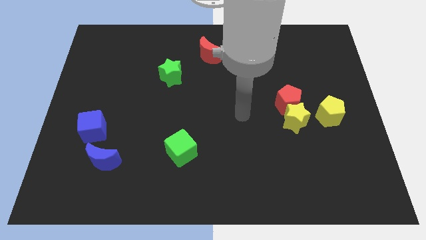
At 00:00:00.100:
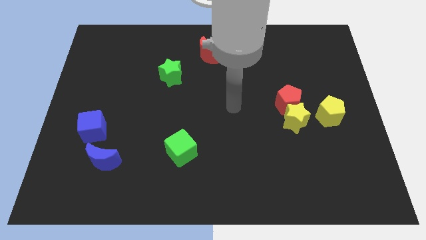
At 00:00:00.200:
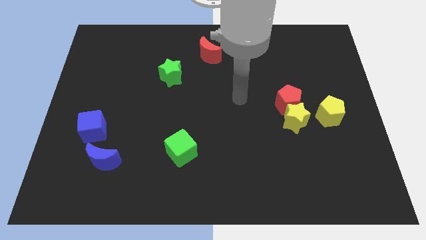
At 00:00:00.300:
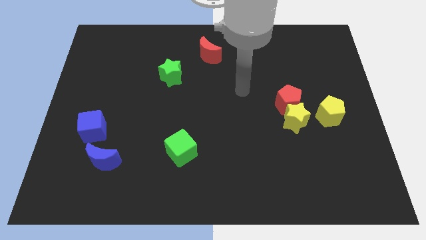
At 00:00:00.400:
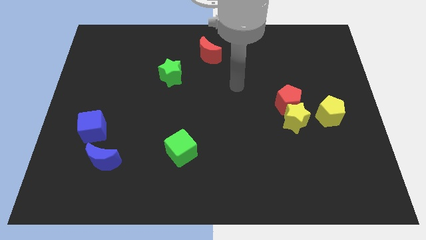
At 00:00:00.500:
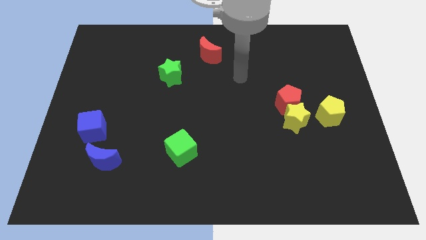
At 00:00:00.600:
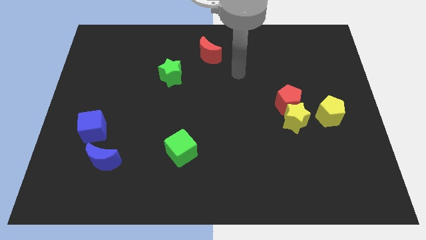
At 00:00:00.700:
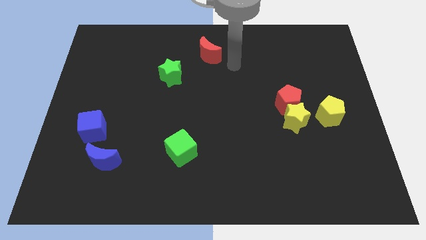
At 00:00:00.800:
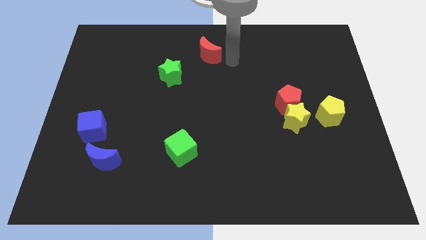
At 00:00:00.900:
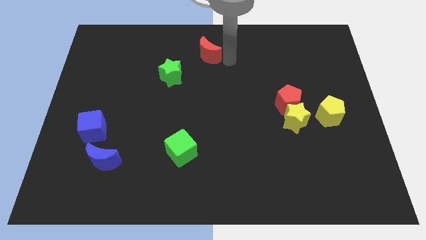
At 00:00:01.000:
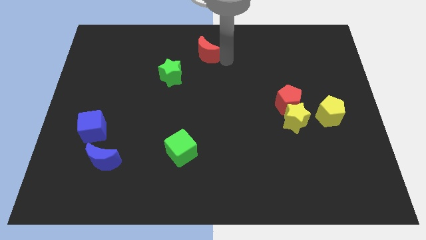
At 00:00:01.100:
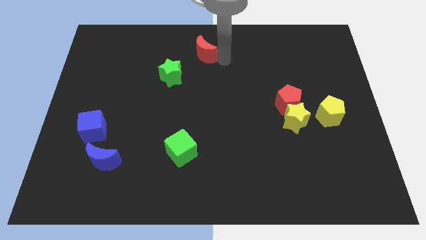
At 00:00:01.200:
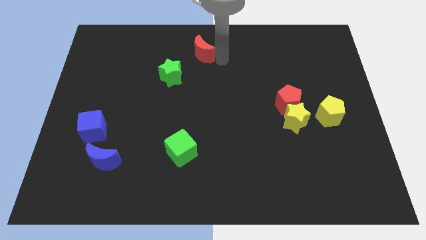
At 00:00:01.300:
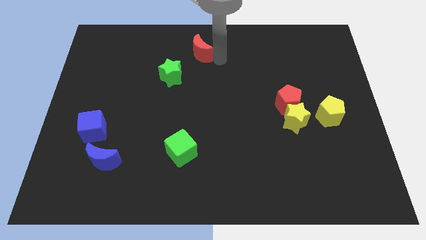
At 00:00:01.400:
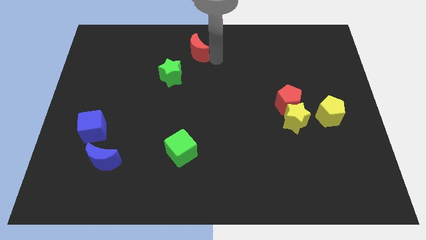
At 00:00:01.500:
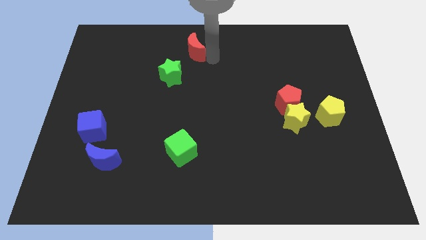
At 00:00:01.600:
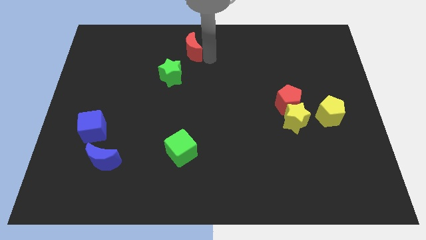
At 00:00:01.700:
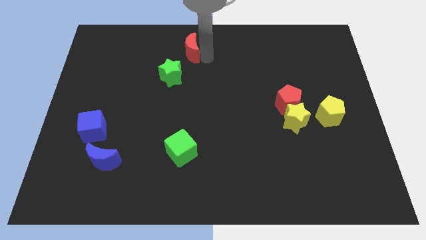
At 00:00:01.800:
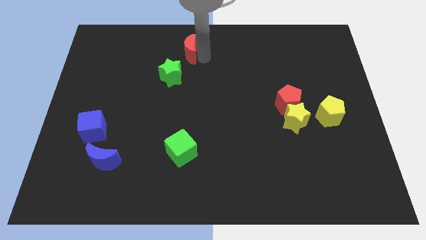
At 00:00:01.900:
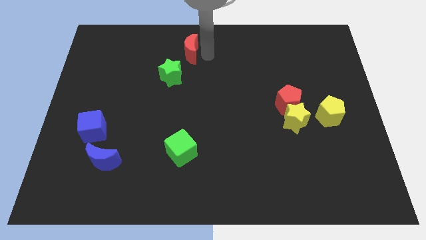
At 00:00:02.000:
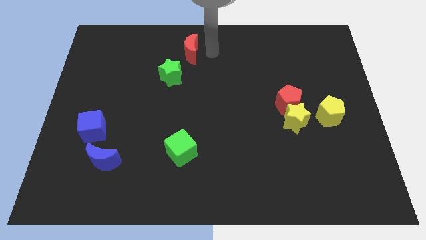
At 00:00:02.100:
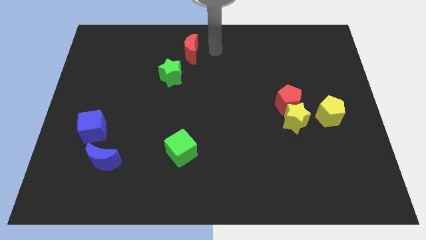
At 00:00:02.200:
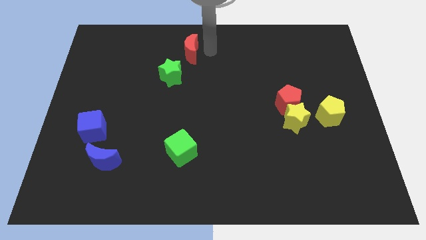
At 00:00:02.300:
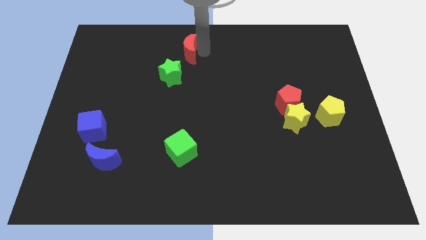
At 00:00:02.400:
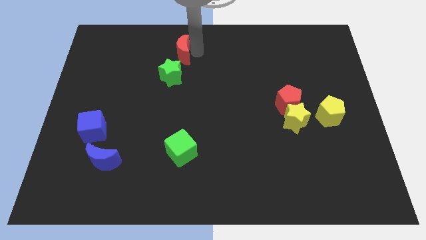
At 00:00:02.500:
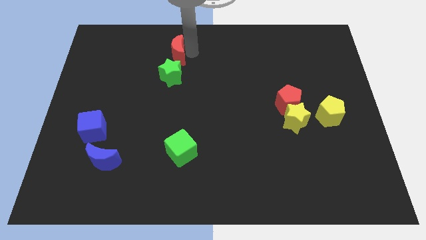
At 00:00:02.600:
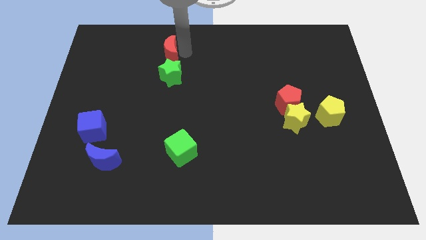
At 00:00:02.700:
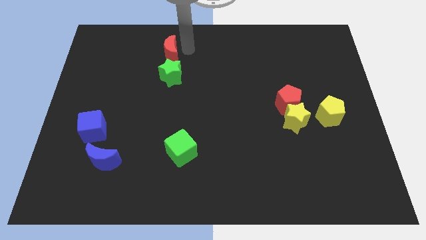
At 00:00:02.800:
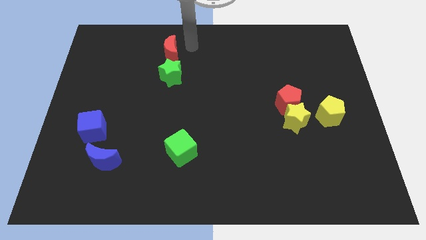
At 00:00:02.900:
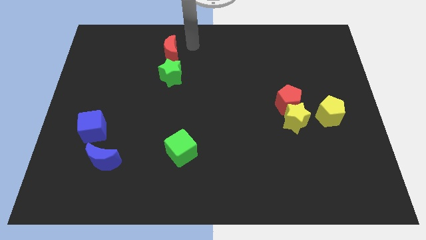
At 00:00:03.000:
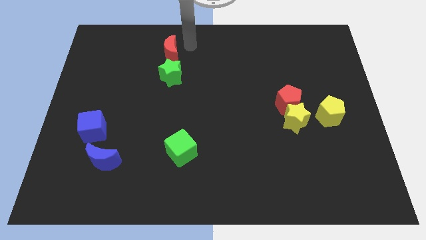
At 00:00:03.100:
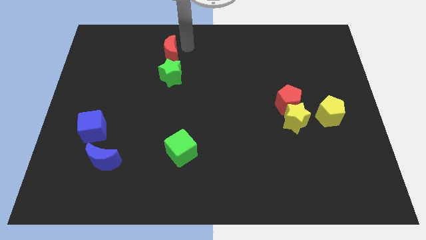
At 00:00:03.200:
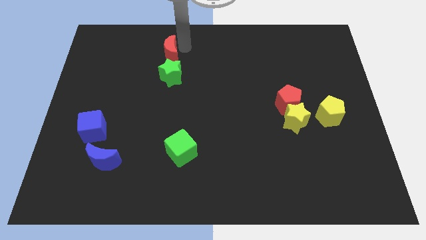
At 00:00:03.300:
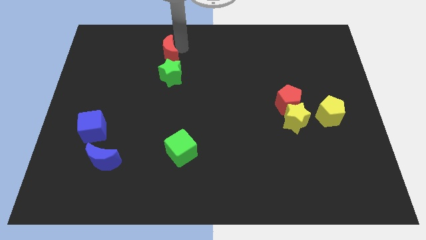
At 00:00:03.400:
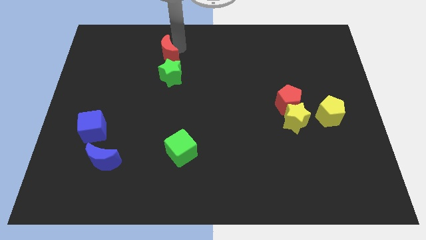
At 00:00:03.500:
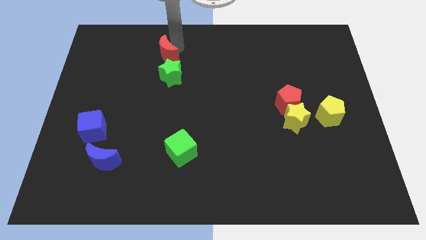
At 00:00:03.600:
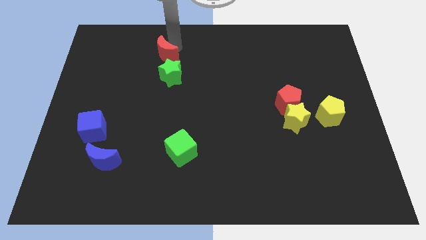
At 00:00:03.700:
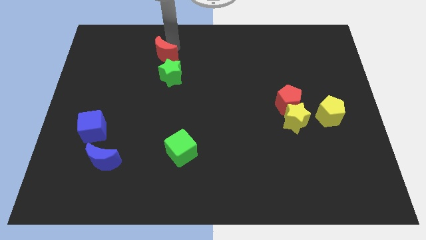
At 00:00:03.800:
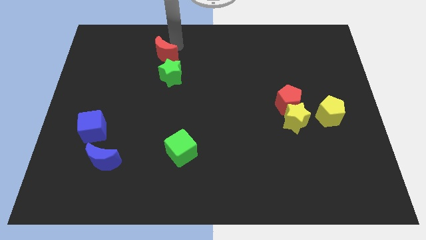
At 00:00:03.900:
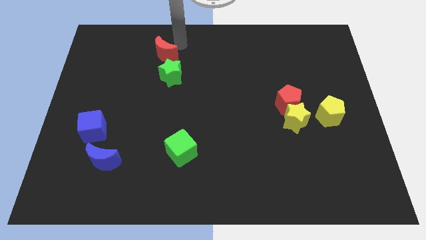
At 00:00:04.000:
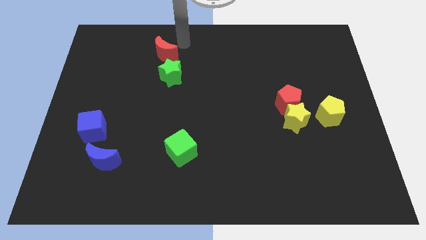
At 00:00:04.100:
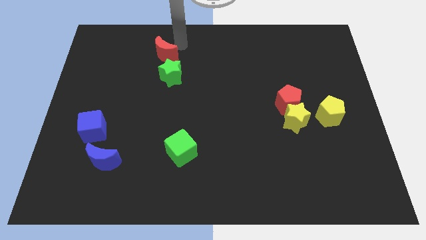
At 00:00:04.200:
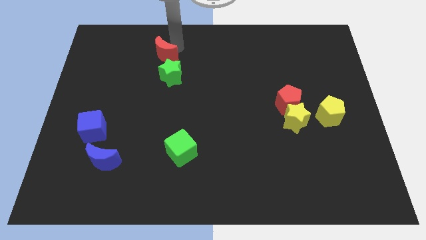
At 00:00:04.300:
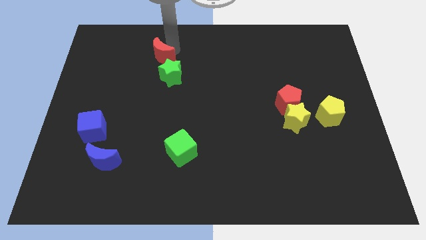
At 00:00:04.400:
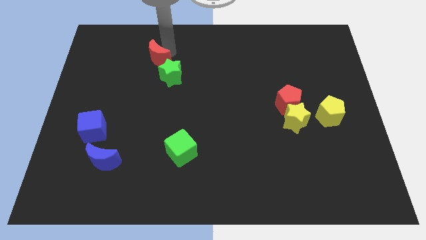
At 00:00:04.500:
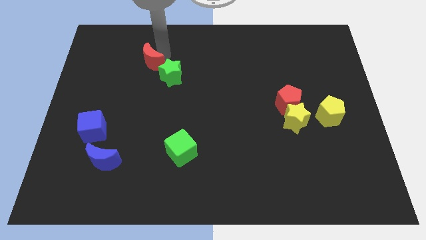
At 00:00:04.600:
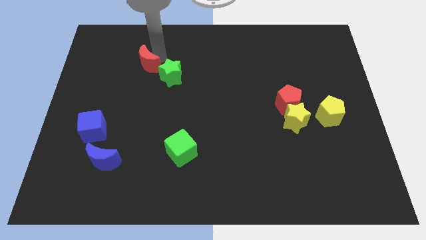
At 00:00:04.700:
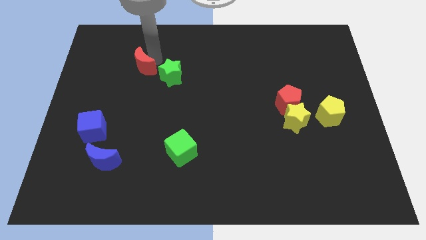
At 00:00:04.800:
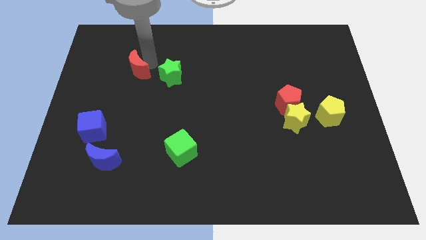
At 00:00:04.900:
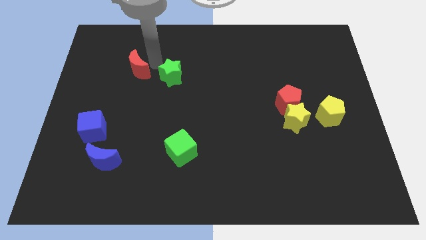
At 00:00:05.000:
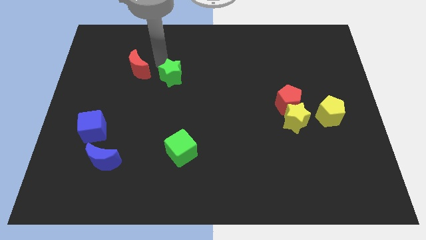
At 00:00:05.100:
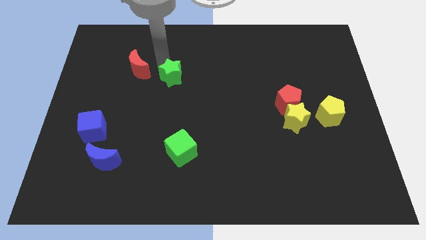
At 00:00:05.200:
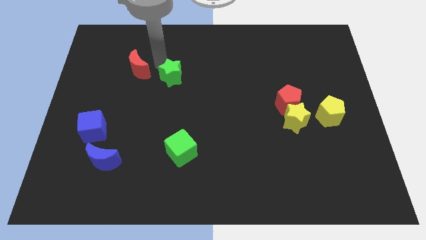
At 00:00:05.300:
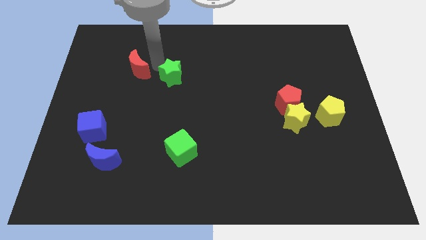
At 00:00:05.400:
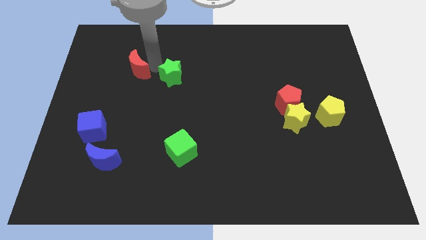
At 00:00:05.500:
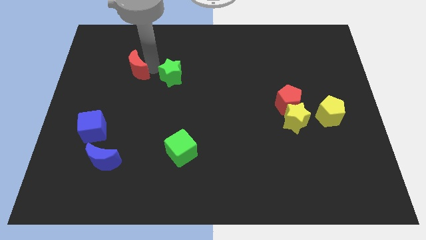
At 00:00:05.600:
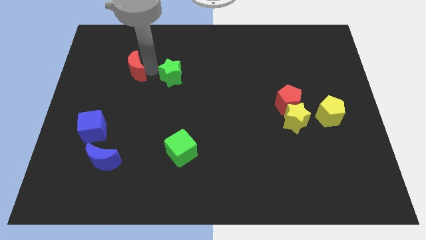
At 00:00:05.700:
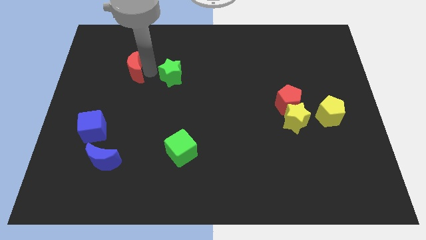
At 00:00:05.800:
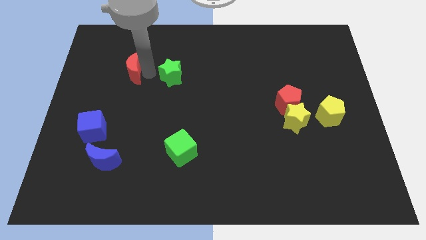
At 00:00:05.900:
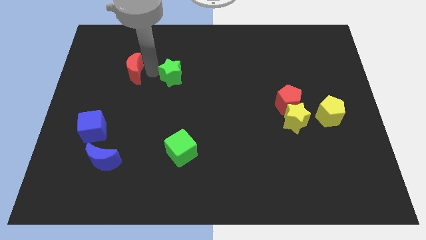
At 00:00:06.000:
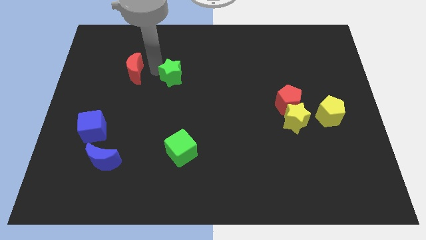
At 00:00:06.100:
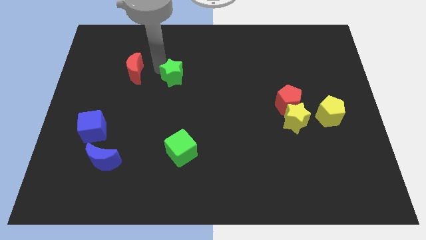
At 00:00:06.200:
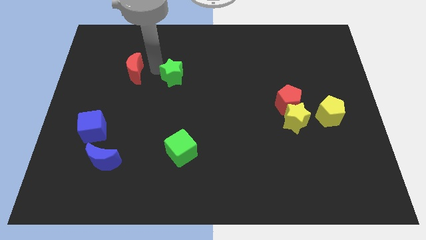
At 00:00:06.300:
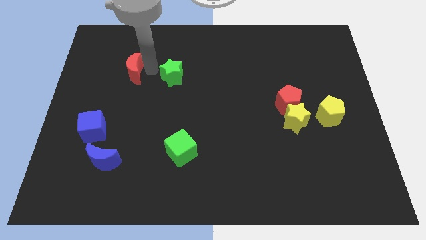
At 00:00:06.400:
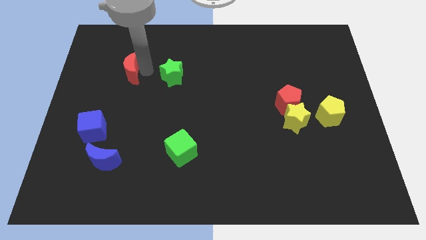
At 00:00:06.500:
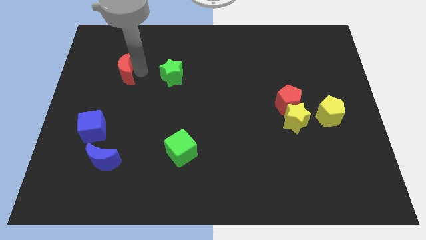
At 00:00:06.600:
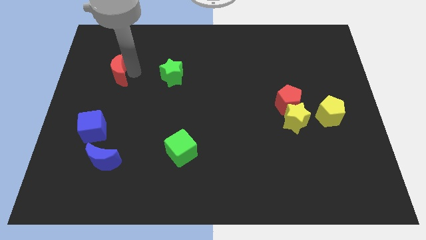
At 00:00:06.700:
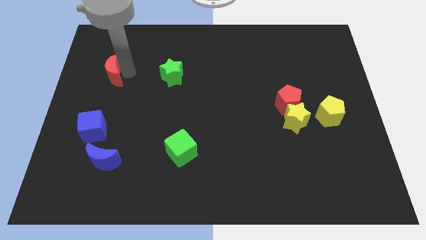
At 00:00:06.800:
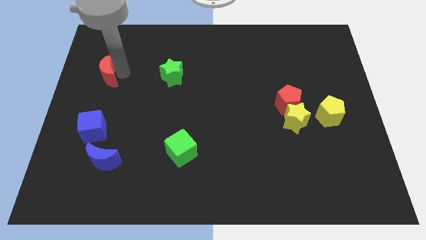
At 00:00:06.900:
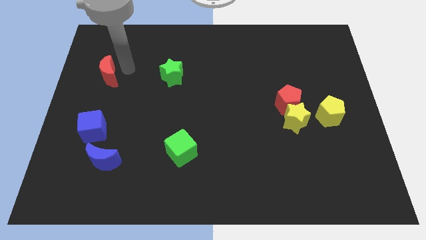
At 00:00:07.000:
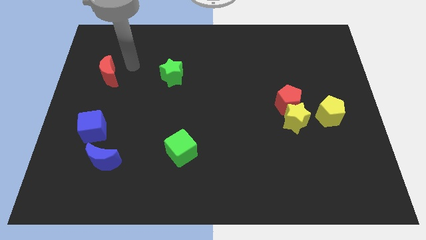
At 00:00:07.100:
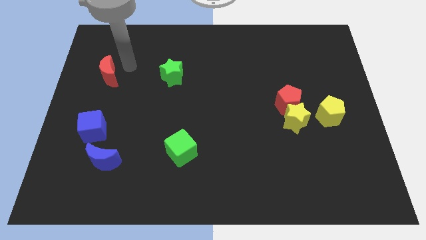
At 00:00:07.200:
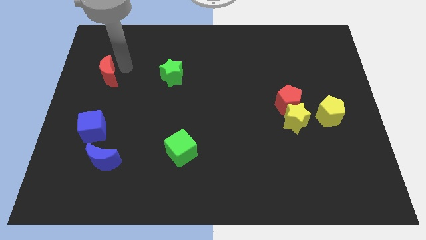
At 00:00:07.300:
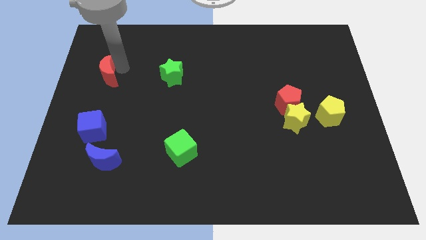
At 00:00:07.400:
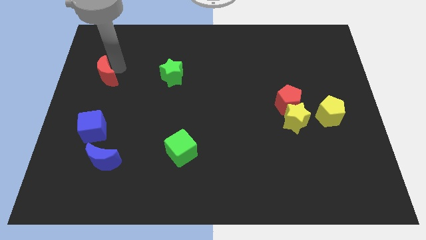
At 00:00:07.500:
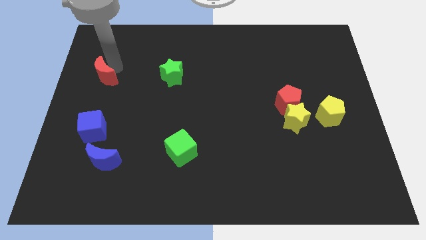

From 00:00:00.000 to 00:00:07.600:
move the red moon to the left side of the board
